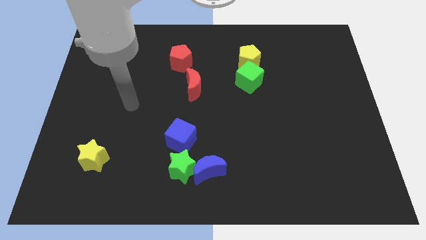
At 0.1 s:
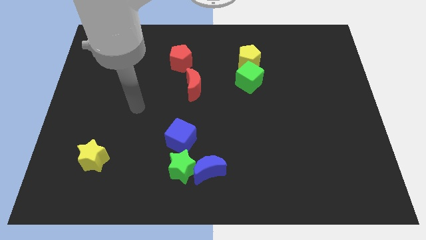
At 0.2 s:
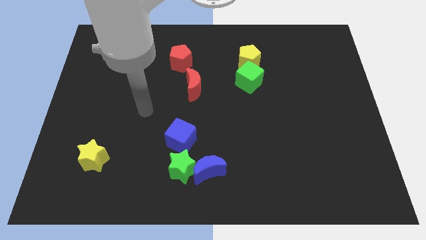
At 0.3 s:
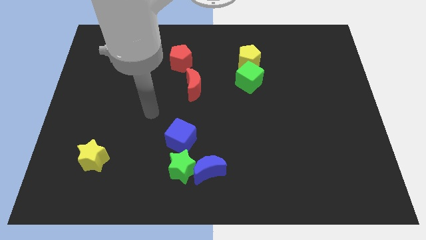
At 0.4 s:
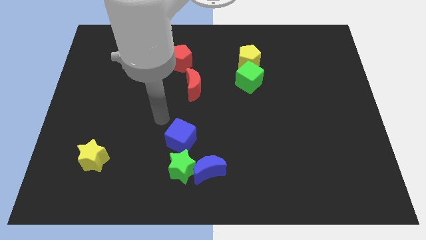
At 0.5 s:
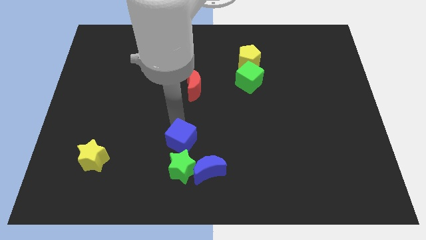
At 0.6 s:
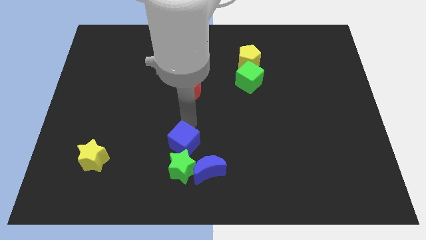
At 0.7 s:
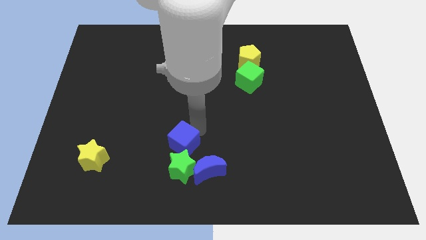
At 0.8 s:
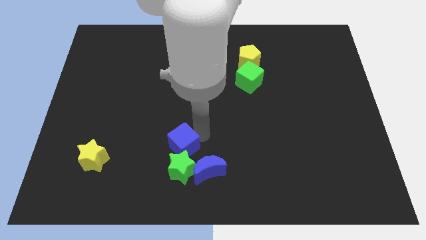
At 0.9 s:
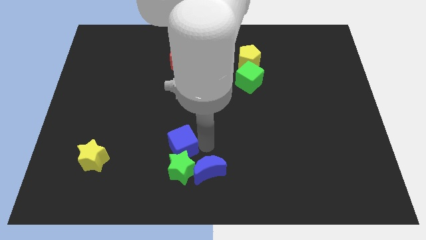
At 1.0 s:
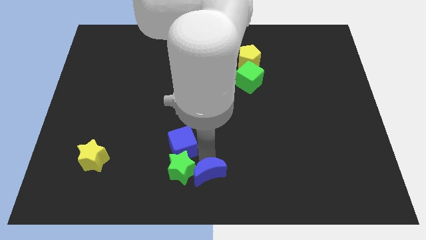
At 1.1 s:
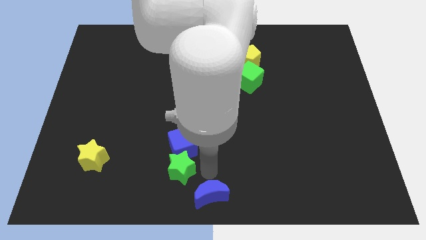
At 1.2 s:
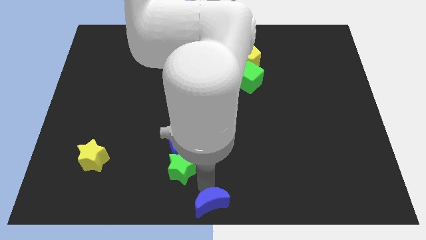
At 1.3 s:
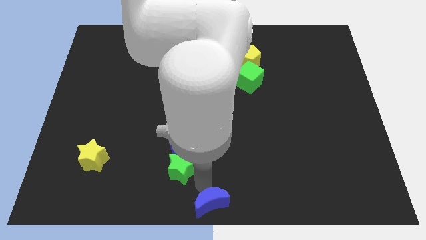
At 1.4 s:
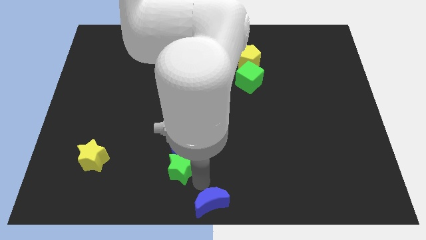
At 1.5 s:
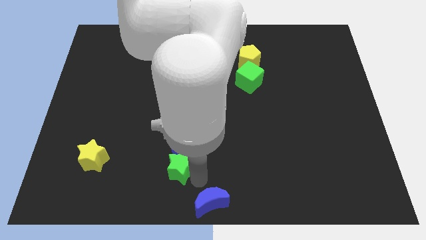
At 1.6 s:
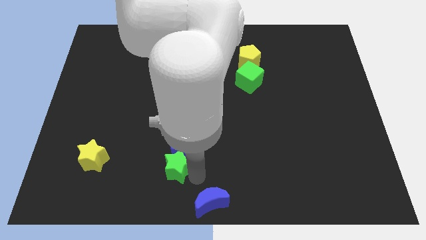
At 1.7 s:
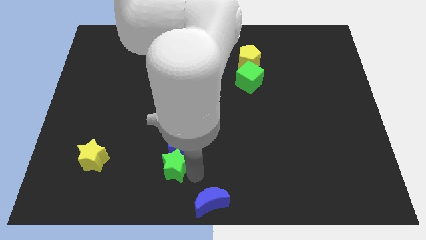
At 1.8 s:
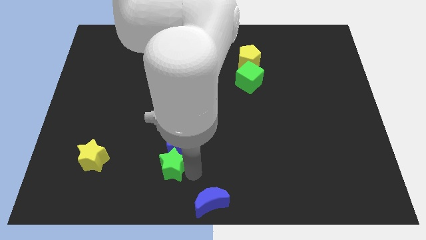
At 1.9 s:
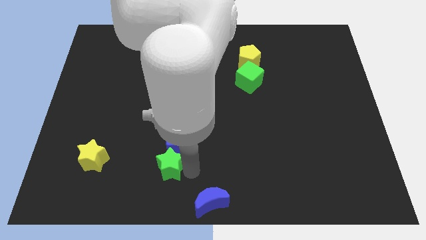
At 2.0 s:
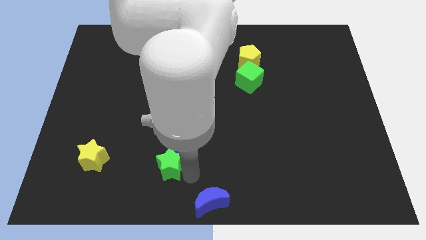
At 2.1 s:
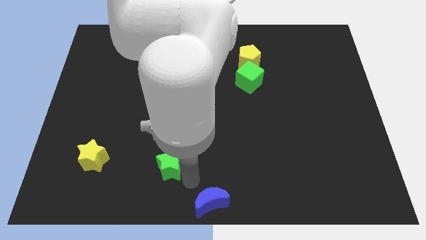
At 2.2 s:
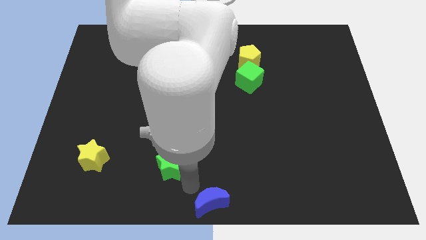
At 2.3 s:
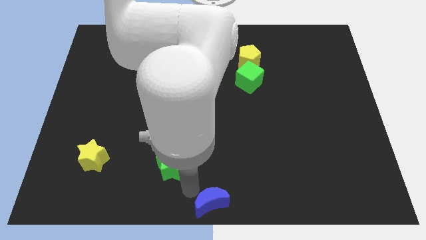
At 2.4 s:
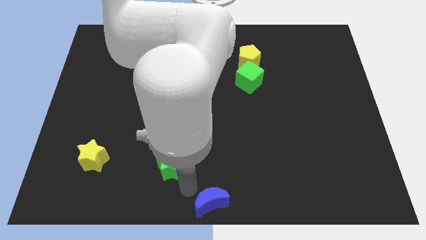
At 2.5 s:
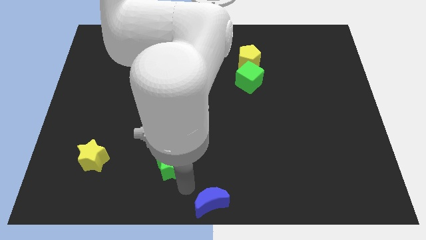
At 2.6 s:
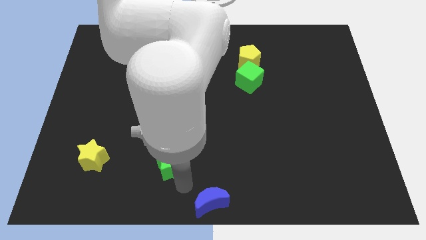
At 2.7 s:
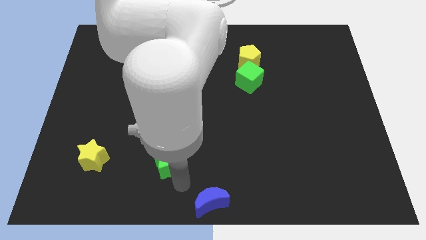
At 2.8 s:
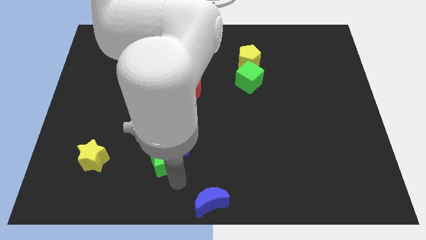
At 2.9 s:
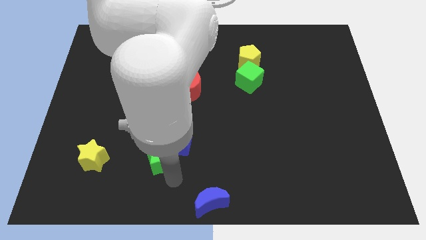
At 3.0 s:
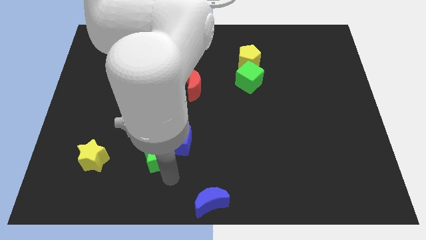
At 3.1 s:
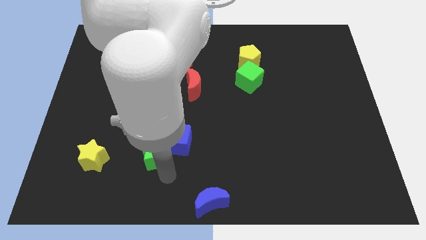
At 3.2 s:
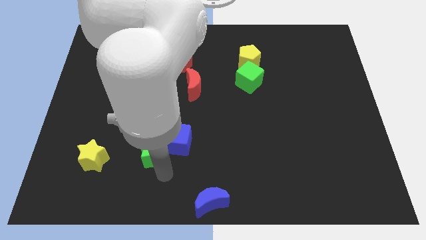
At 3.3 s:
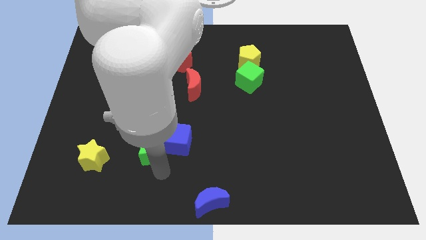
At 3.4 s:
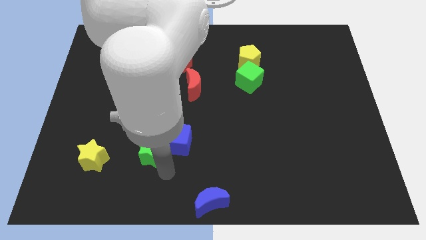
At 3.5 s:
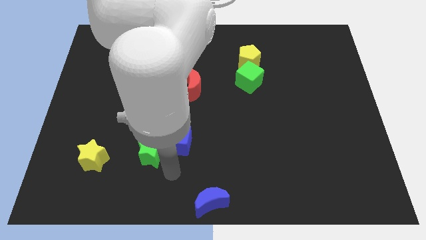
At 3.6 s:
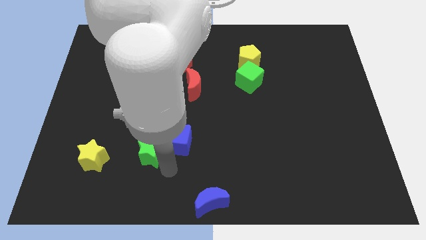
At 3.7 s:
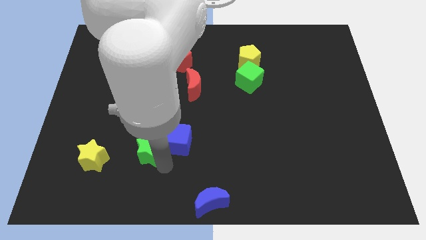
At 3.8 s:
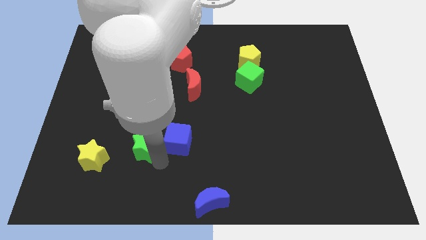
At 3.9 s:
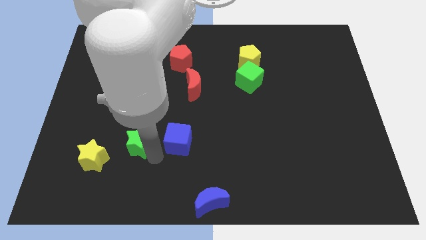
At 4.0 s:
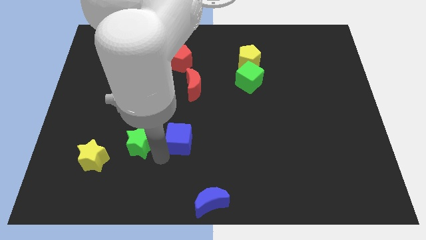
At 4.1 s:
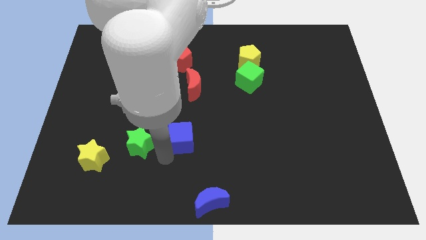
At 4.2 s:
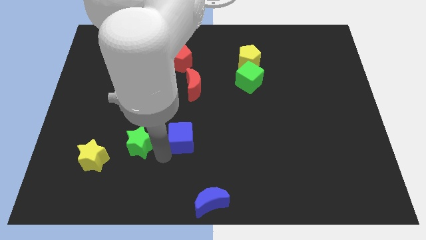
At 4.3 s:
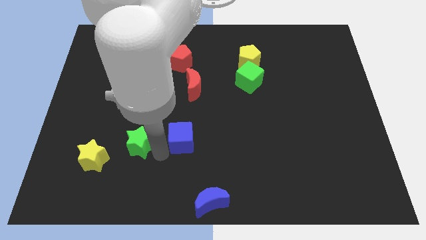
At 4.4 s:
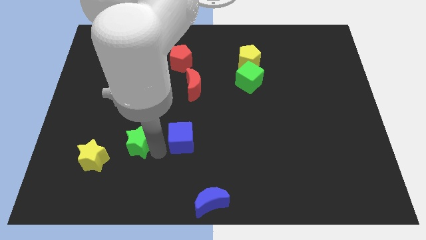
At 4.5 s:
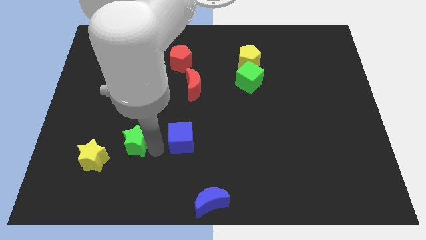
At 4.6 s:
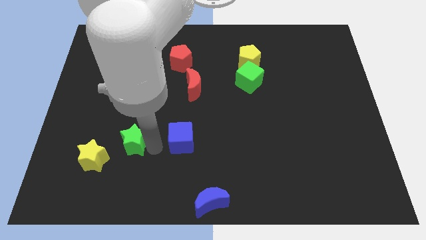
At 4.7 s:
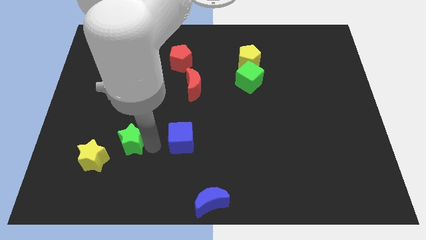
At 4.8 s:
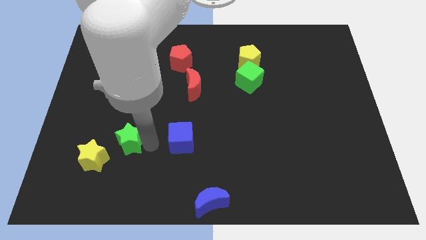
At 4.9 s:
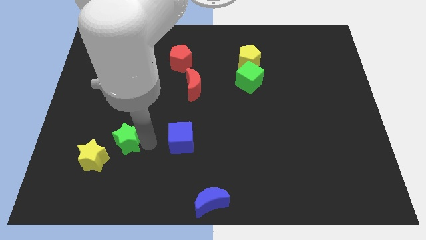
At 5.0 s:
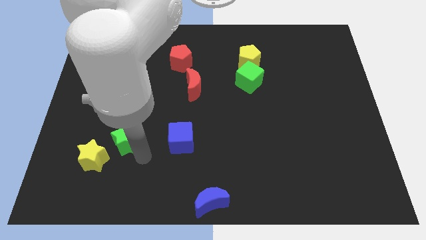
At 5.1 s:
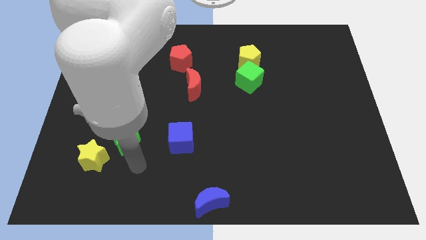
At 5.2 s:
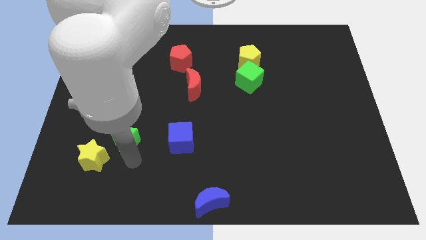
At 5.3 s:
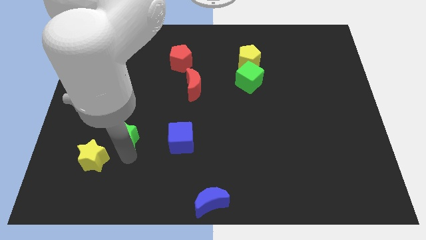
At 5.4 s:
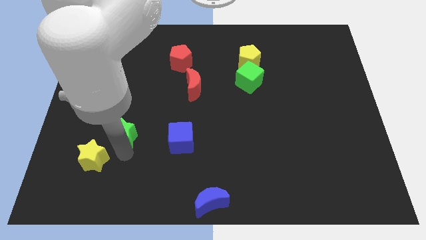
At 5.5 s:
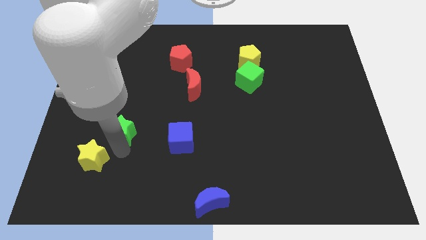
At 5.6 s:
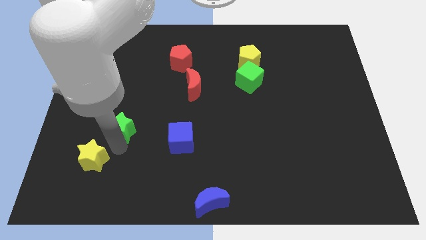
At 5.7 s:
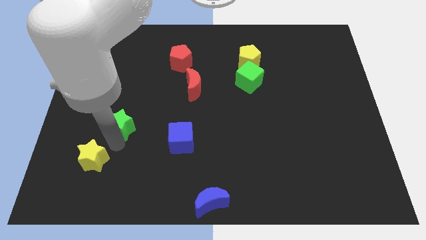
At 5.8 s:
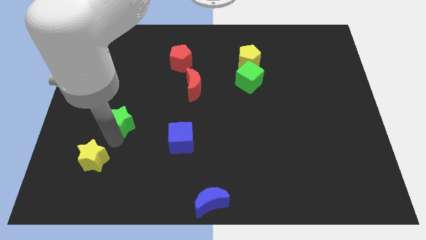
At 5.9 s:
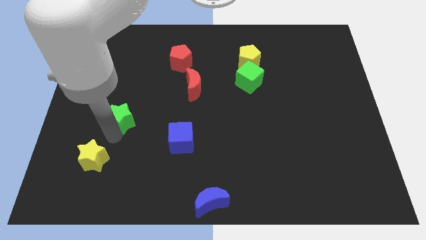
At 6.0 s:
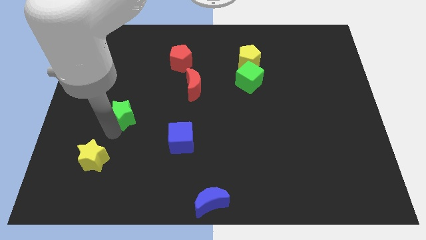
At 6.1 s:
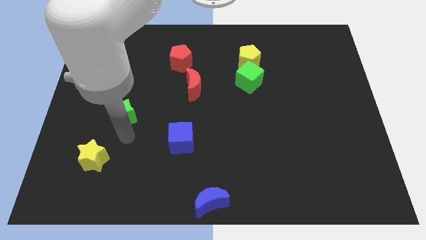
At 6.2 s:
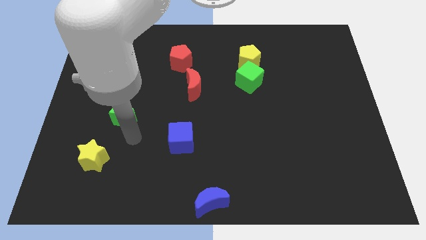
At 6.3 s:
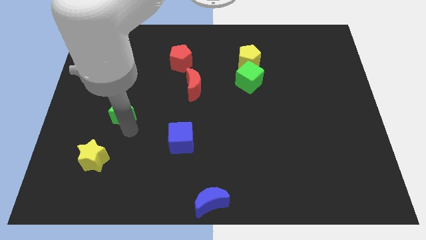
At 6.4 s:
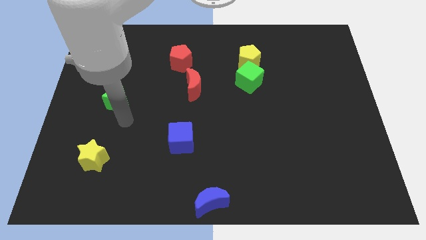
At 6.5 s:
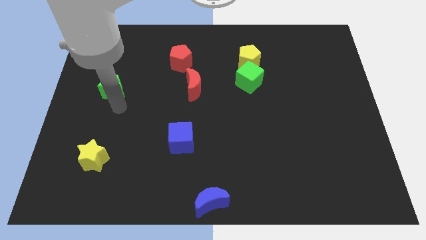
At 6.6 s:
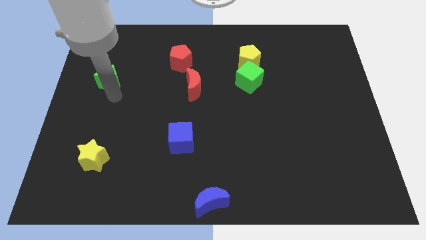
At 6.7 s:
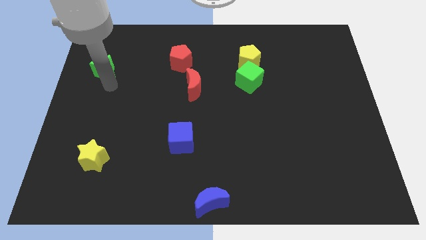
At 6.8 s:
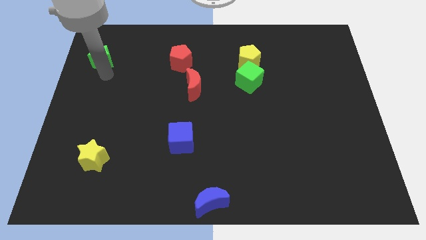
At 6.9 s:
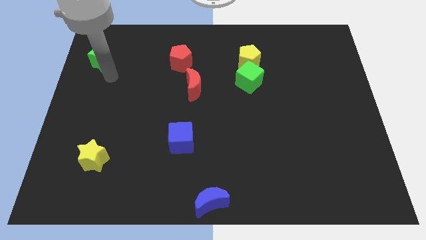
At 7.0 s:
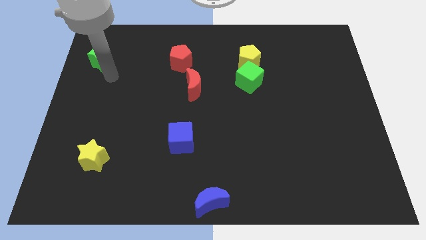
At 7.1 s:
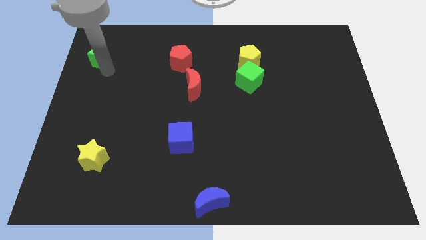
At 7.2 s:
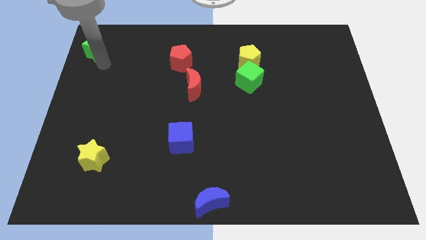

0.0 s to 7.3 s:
move the green star to the top left corner
